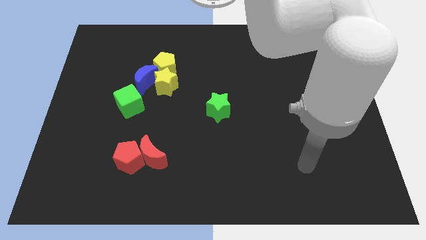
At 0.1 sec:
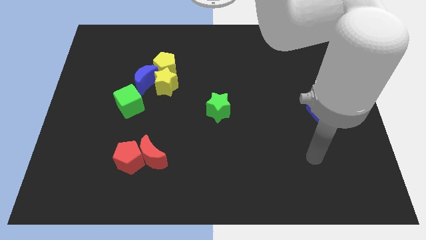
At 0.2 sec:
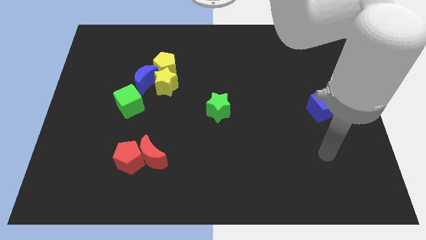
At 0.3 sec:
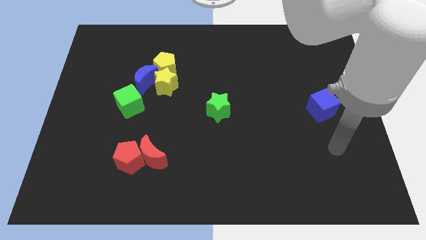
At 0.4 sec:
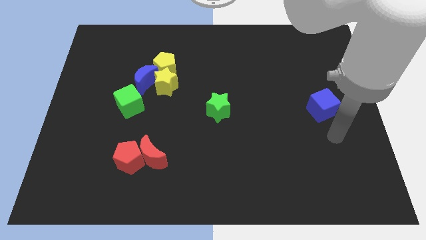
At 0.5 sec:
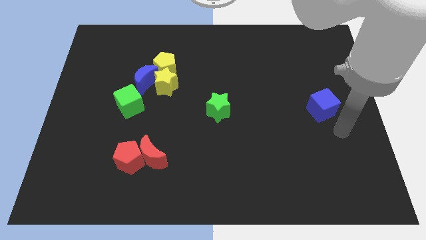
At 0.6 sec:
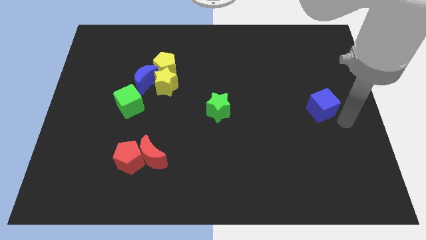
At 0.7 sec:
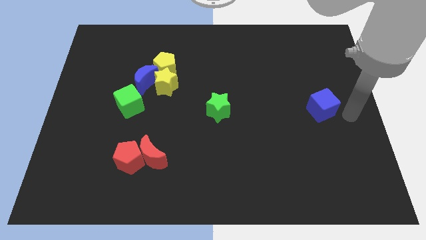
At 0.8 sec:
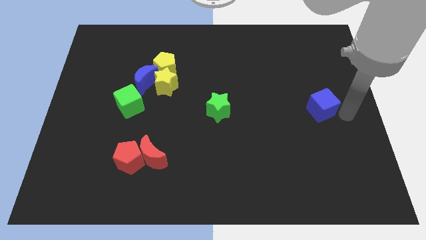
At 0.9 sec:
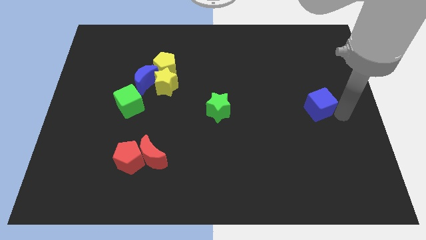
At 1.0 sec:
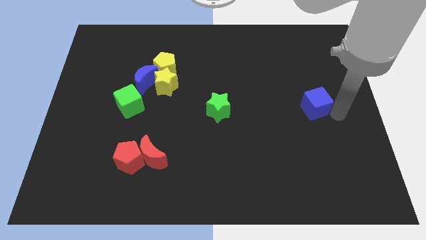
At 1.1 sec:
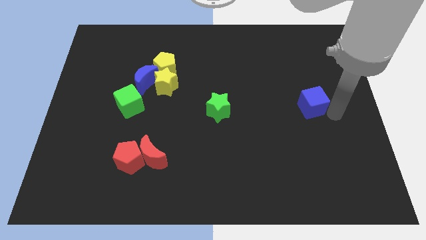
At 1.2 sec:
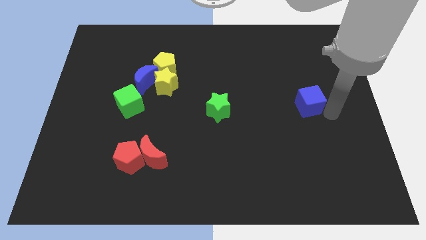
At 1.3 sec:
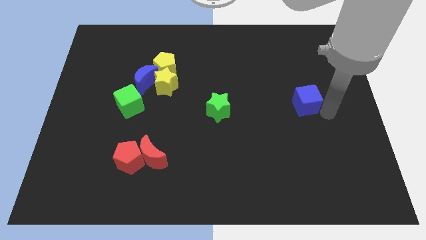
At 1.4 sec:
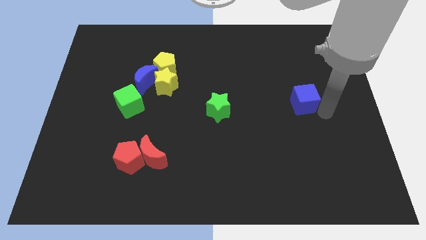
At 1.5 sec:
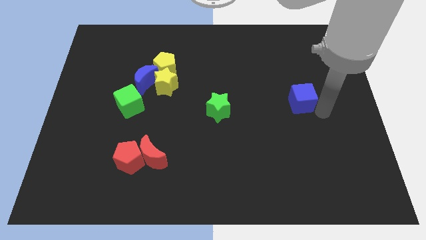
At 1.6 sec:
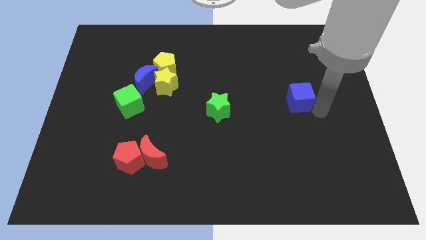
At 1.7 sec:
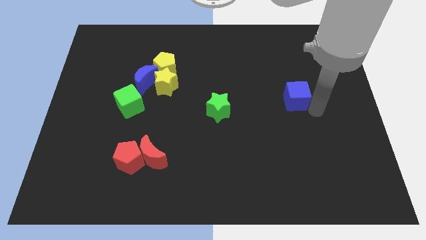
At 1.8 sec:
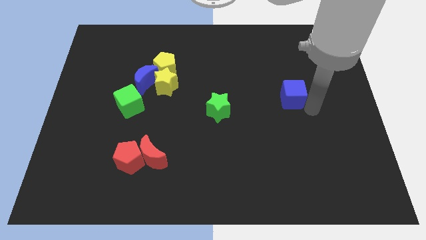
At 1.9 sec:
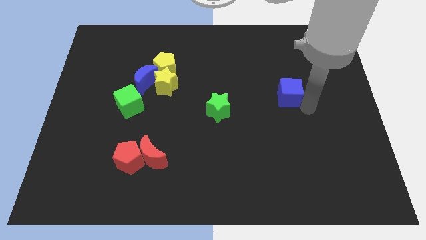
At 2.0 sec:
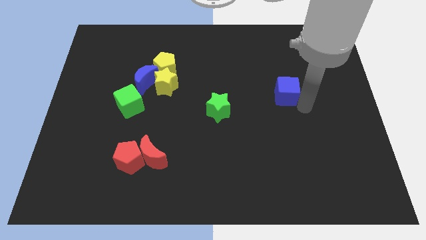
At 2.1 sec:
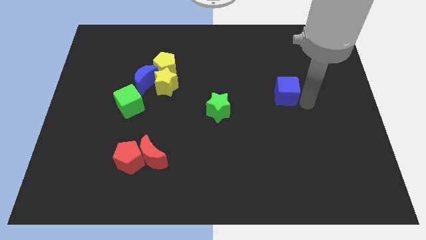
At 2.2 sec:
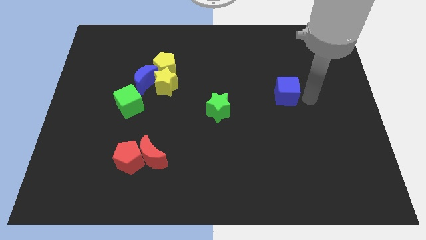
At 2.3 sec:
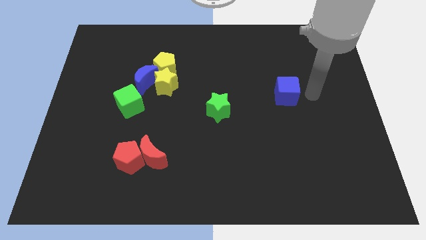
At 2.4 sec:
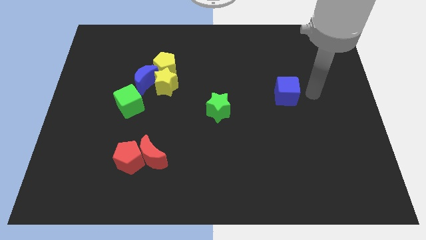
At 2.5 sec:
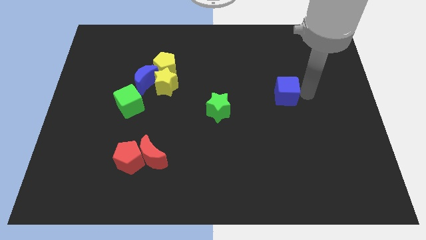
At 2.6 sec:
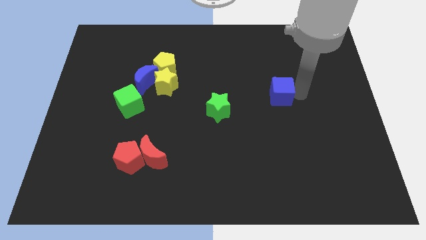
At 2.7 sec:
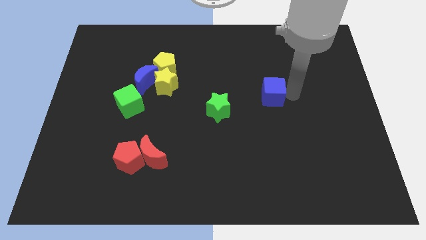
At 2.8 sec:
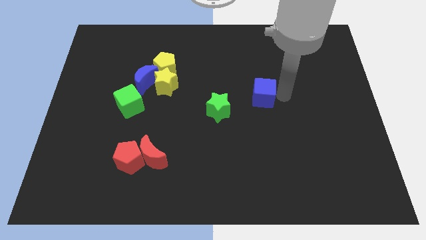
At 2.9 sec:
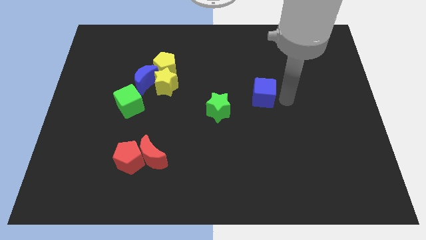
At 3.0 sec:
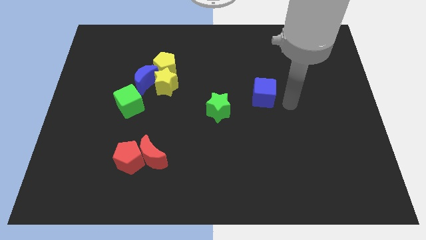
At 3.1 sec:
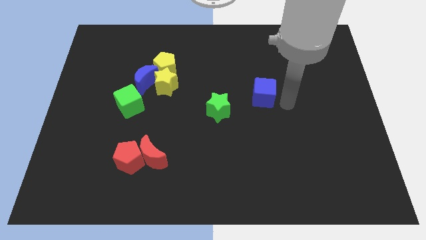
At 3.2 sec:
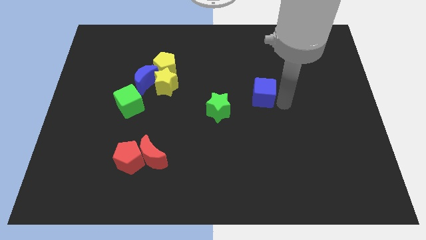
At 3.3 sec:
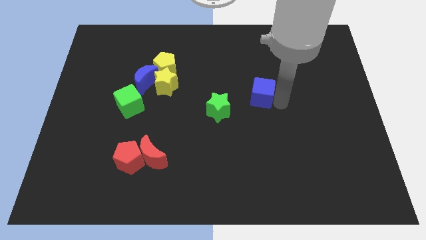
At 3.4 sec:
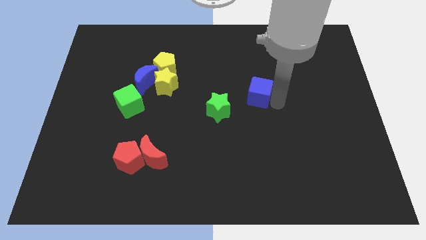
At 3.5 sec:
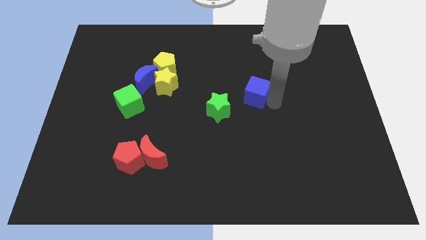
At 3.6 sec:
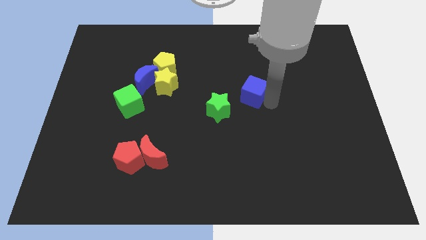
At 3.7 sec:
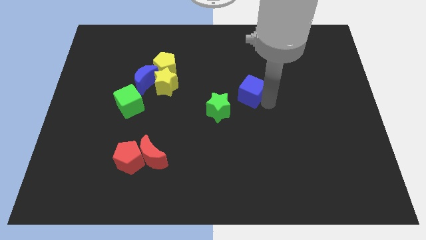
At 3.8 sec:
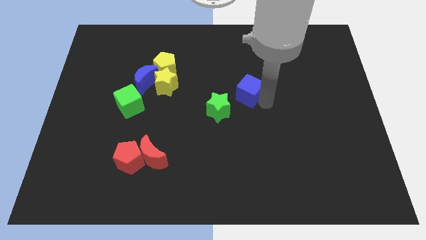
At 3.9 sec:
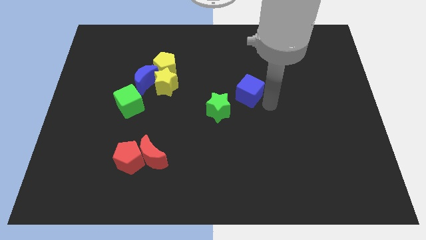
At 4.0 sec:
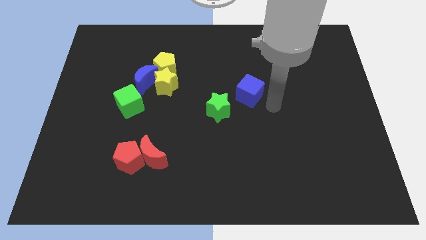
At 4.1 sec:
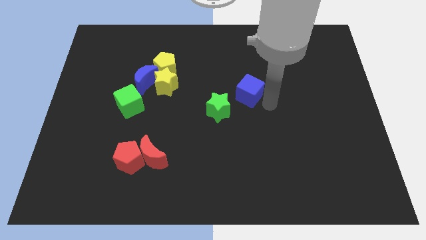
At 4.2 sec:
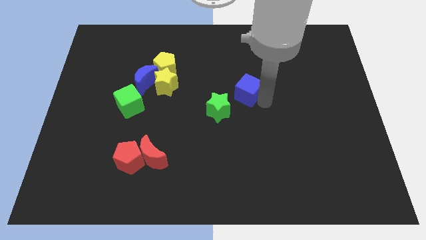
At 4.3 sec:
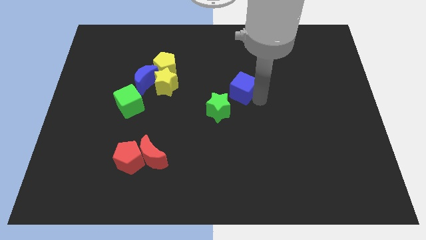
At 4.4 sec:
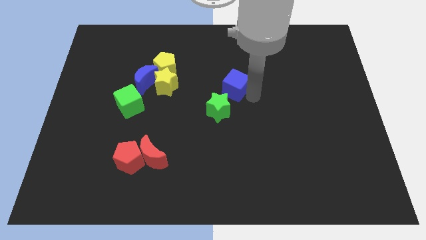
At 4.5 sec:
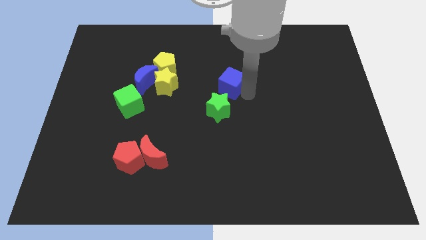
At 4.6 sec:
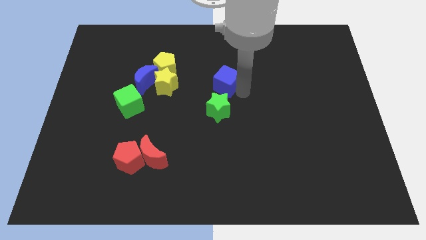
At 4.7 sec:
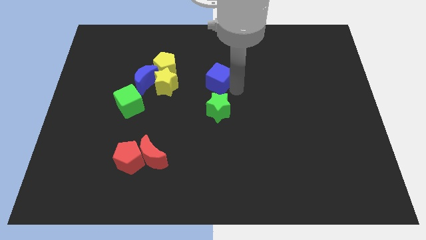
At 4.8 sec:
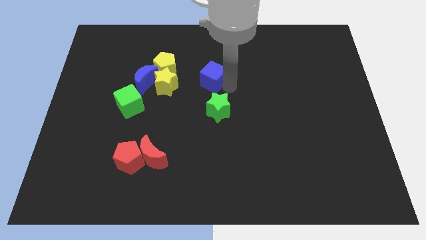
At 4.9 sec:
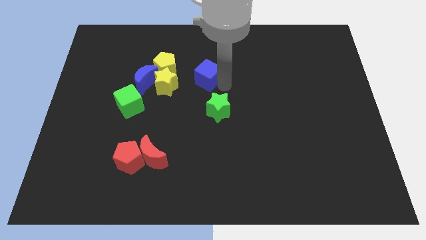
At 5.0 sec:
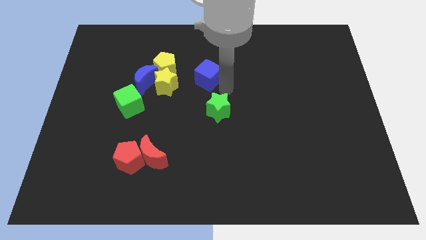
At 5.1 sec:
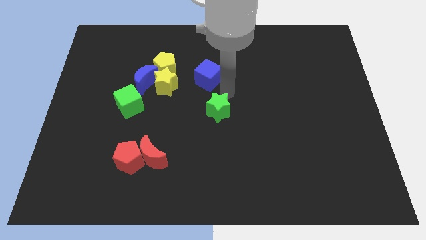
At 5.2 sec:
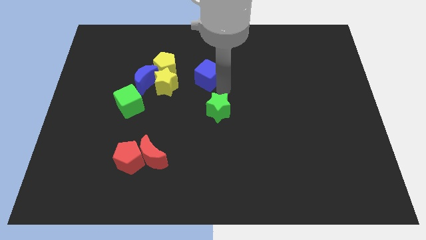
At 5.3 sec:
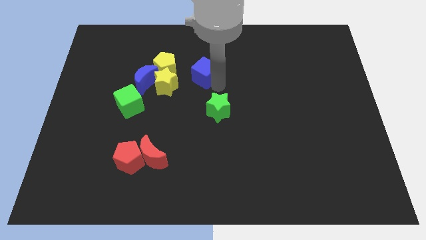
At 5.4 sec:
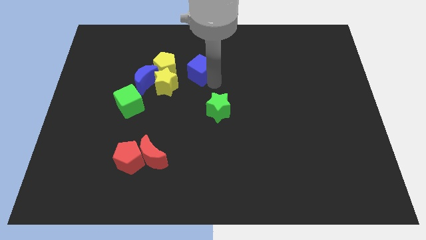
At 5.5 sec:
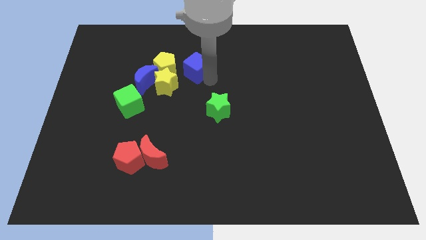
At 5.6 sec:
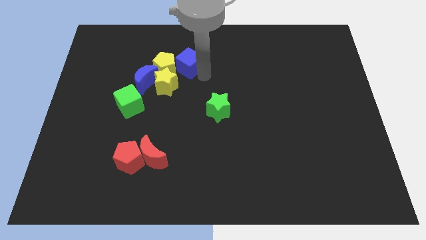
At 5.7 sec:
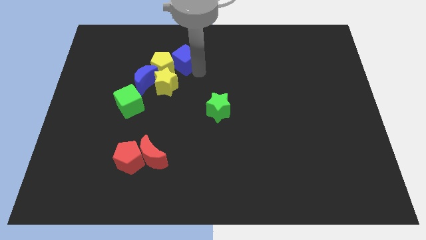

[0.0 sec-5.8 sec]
push the blue cube above the yellow star
